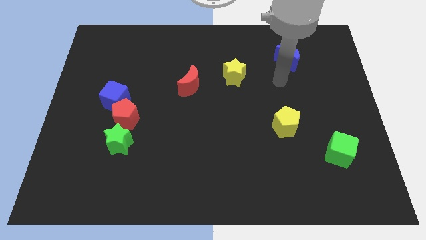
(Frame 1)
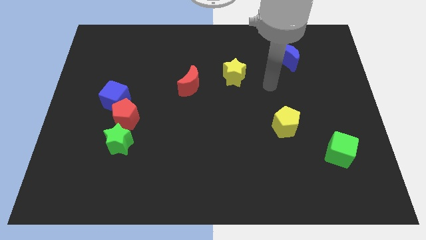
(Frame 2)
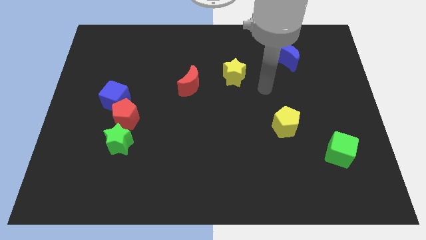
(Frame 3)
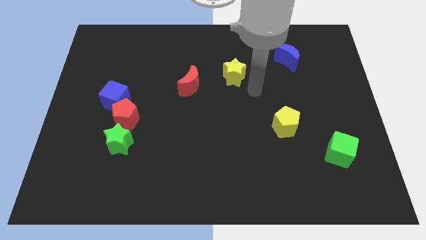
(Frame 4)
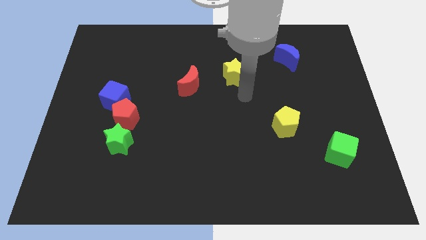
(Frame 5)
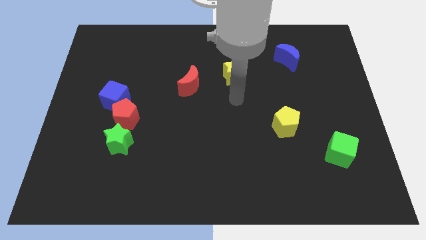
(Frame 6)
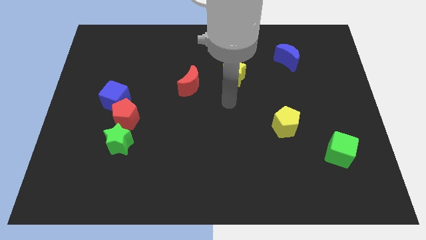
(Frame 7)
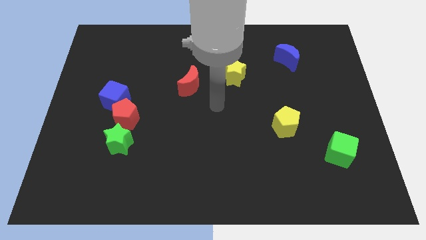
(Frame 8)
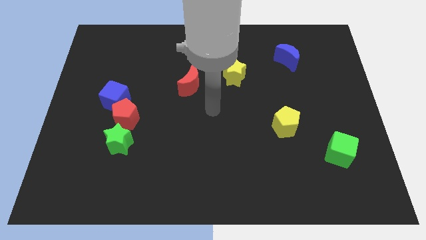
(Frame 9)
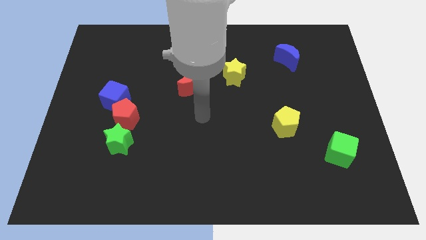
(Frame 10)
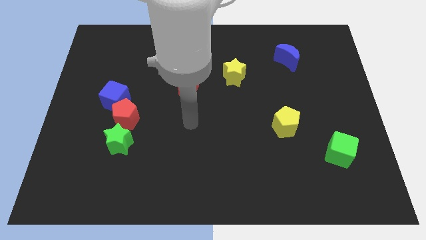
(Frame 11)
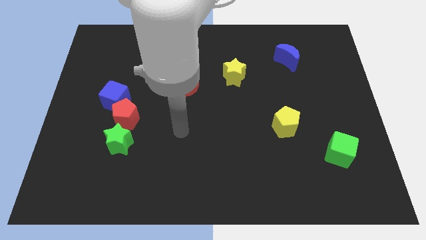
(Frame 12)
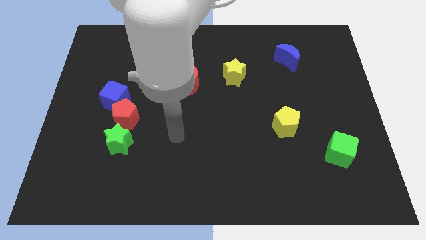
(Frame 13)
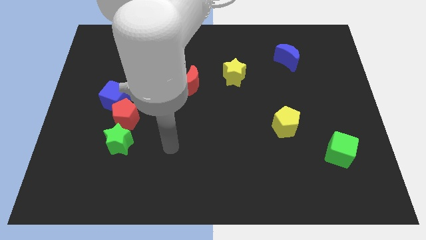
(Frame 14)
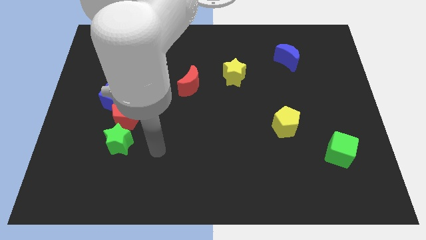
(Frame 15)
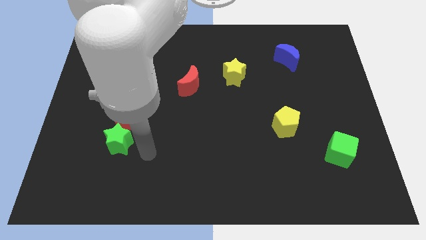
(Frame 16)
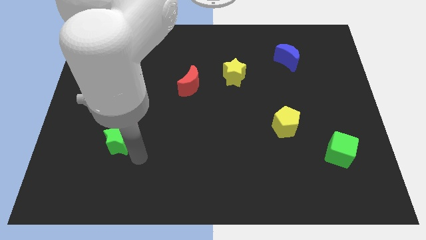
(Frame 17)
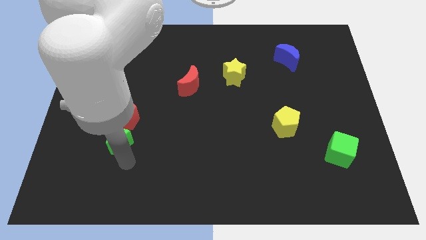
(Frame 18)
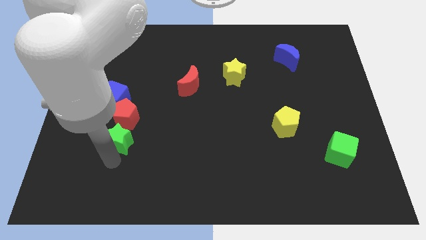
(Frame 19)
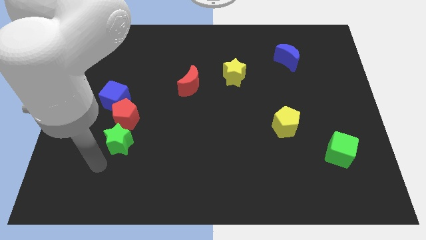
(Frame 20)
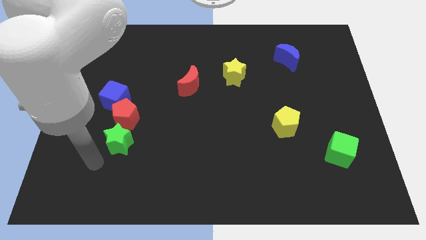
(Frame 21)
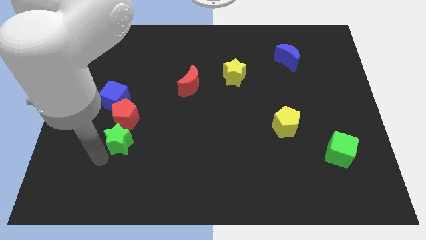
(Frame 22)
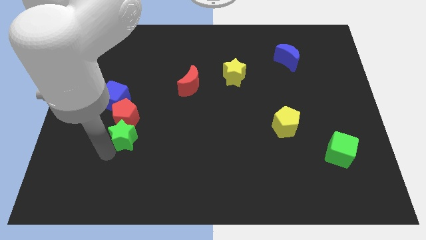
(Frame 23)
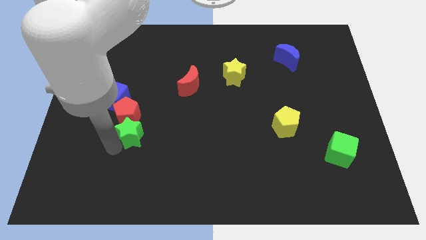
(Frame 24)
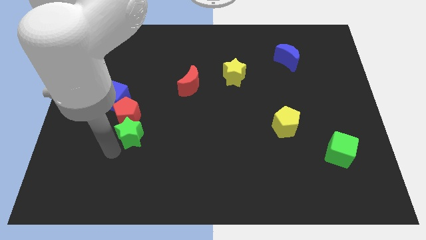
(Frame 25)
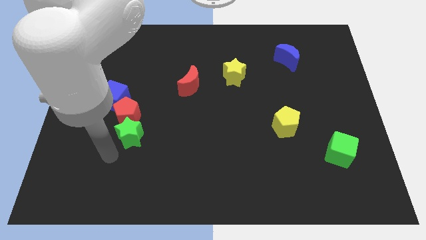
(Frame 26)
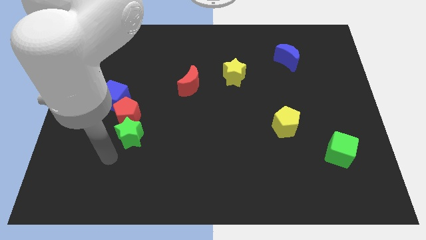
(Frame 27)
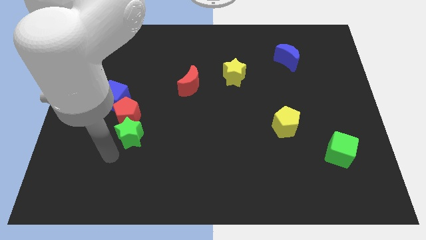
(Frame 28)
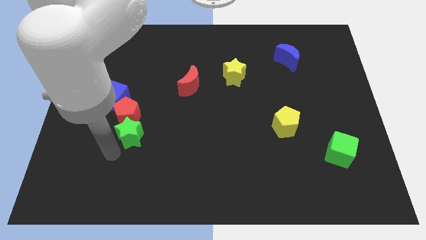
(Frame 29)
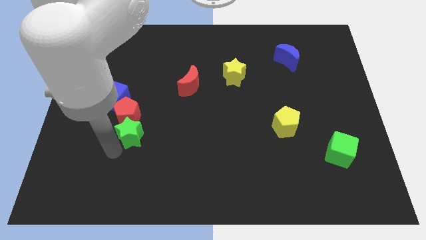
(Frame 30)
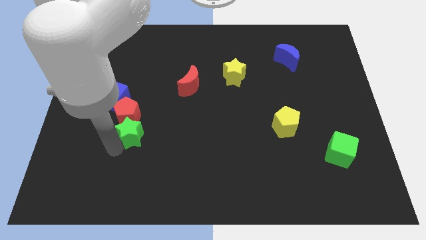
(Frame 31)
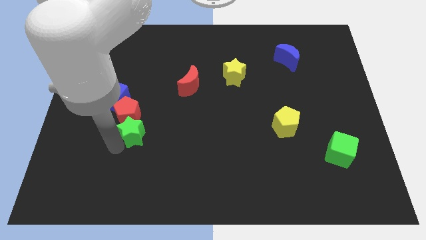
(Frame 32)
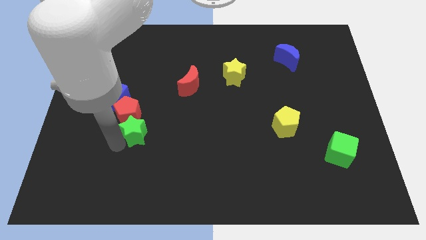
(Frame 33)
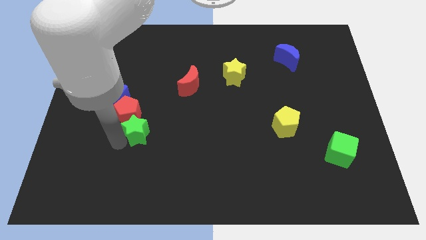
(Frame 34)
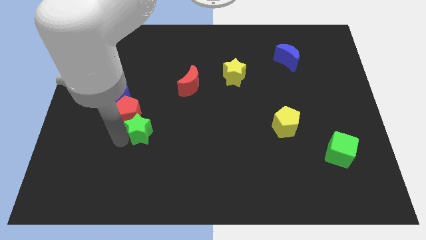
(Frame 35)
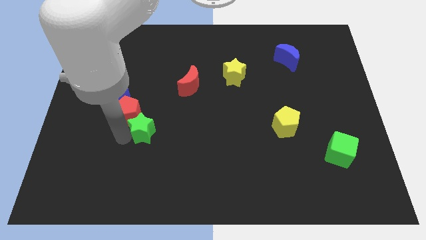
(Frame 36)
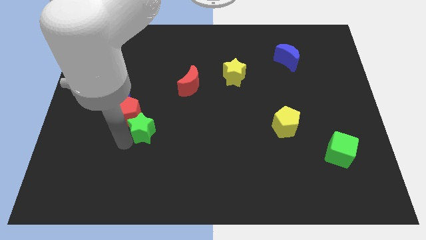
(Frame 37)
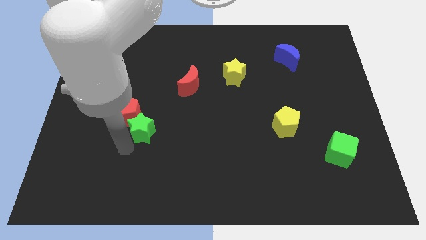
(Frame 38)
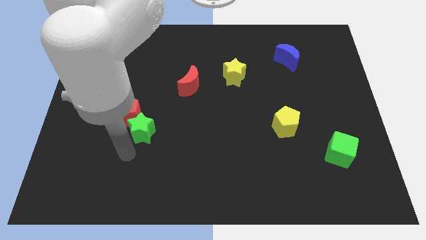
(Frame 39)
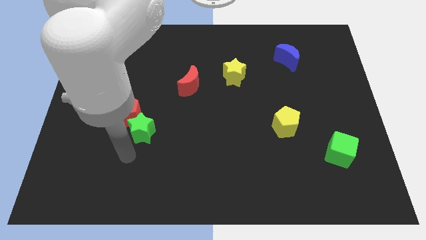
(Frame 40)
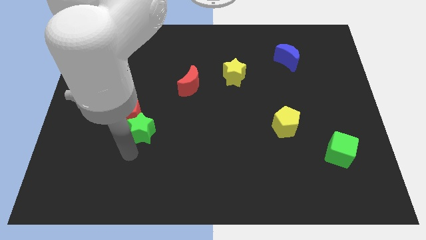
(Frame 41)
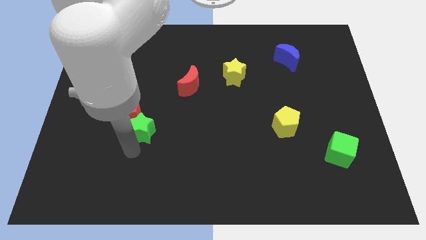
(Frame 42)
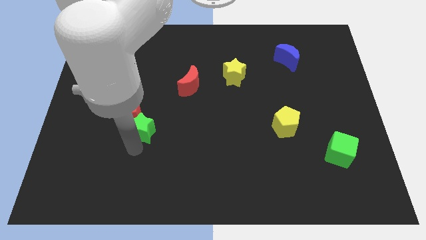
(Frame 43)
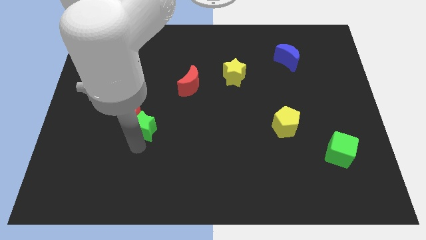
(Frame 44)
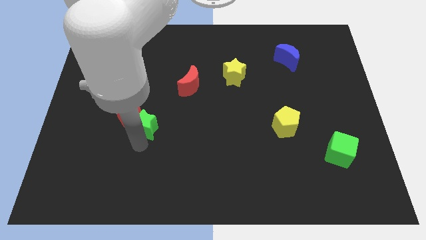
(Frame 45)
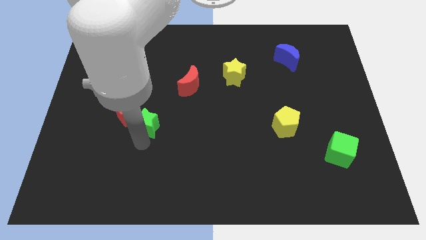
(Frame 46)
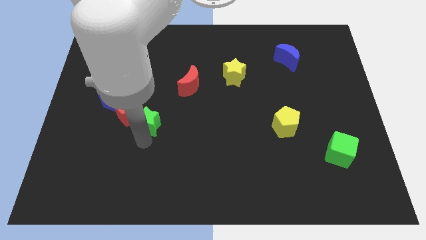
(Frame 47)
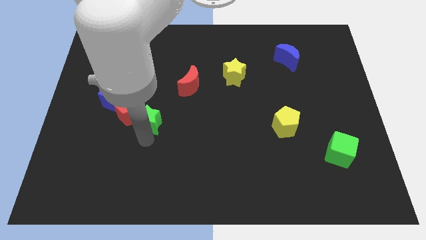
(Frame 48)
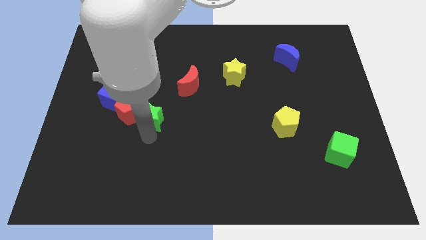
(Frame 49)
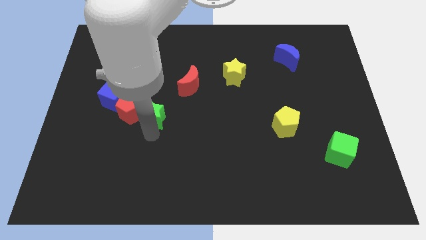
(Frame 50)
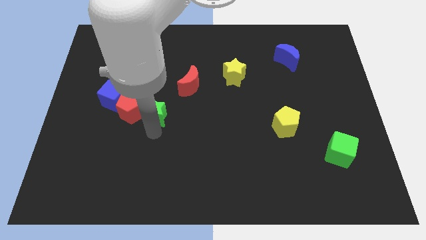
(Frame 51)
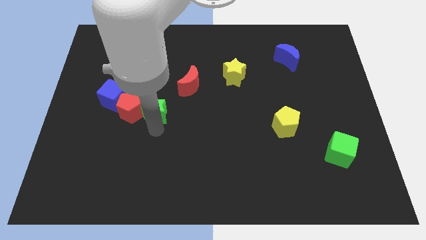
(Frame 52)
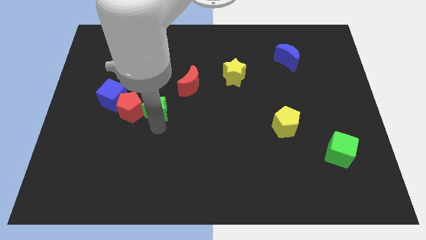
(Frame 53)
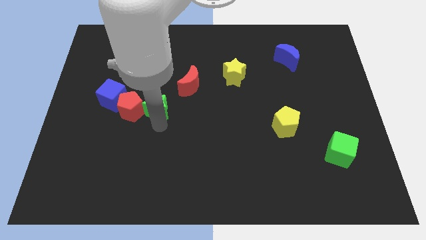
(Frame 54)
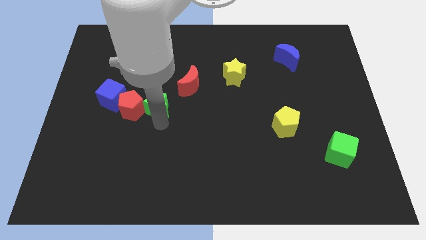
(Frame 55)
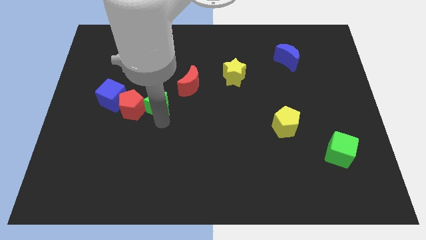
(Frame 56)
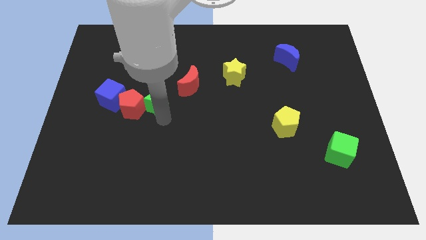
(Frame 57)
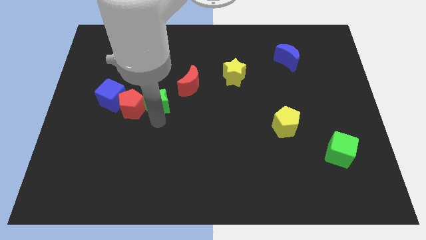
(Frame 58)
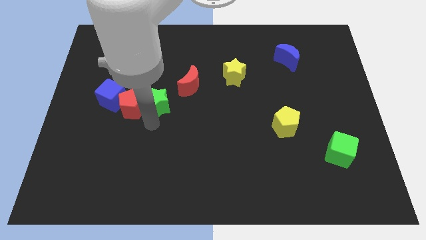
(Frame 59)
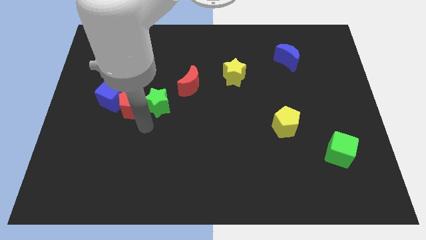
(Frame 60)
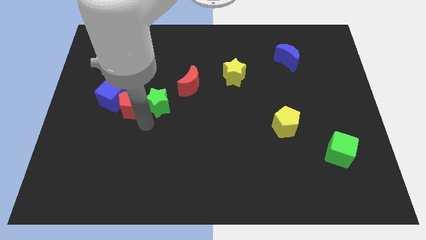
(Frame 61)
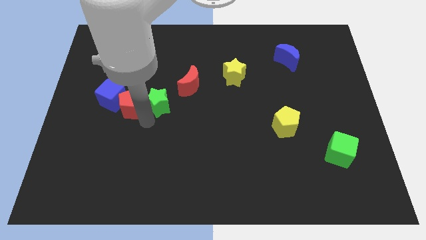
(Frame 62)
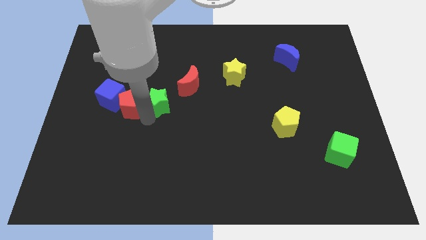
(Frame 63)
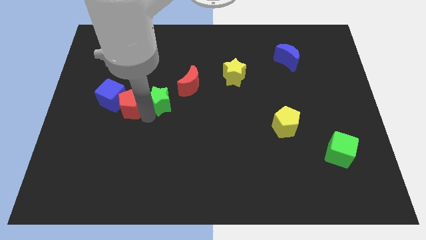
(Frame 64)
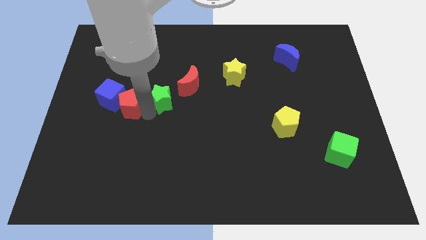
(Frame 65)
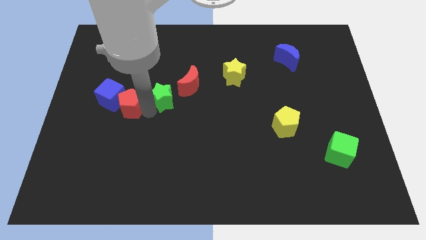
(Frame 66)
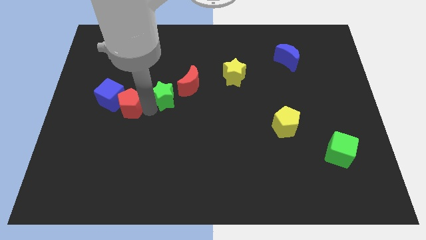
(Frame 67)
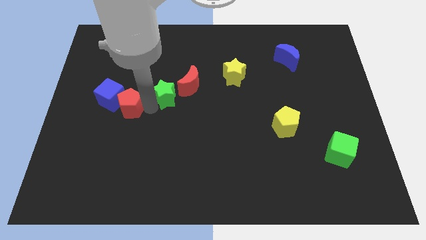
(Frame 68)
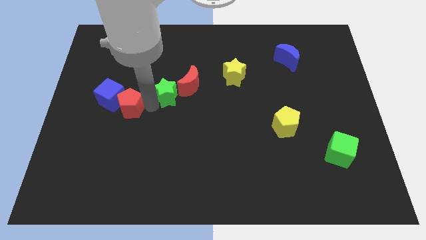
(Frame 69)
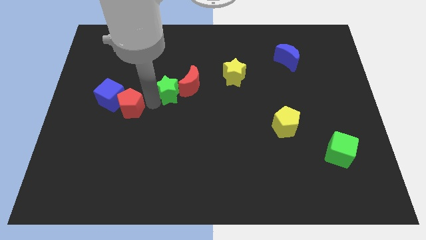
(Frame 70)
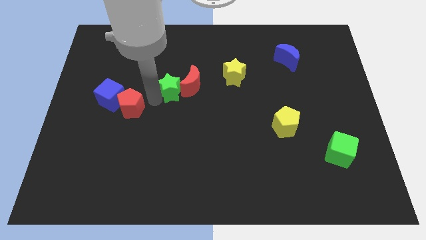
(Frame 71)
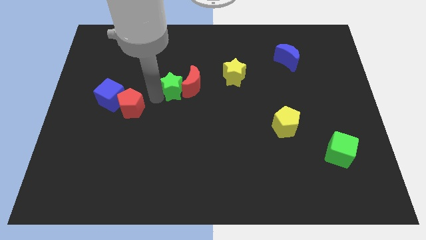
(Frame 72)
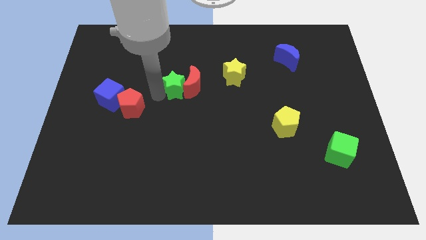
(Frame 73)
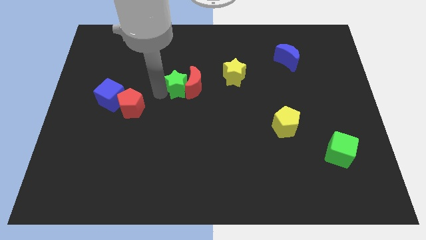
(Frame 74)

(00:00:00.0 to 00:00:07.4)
push the green star to the left side of the yellow star
